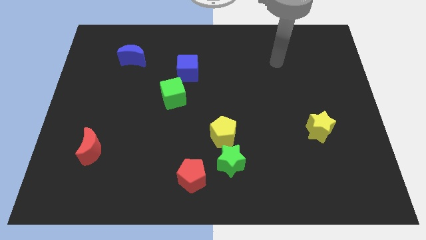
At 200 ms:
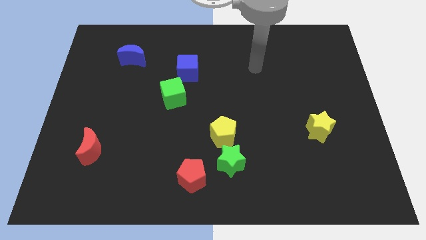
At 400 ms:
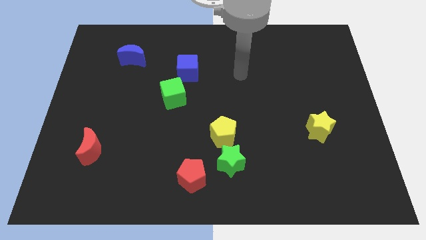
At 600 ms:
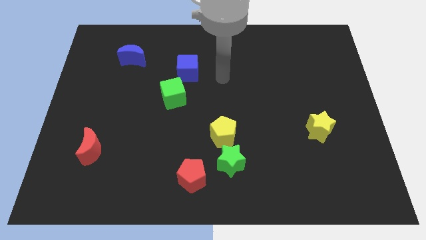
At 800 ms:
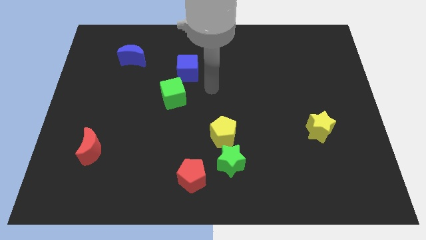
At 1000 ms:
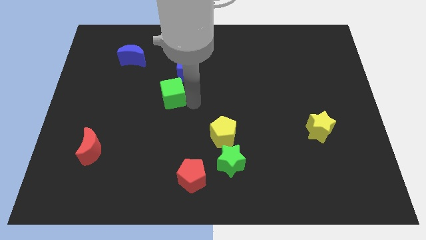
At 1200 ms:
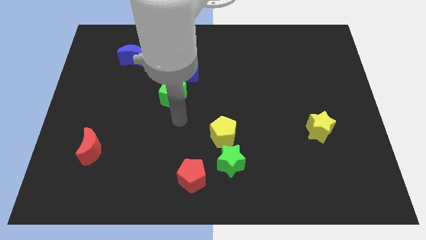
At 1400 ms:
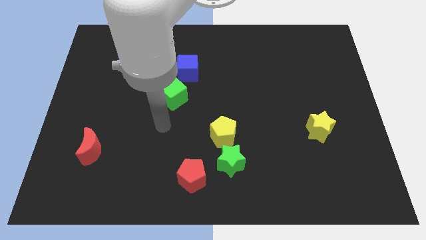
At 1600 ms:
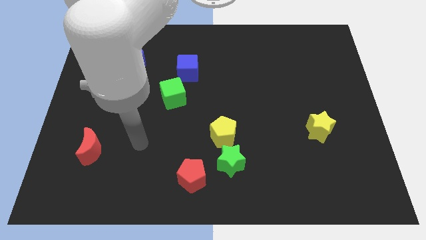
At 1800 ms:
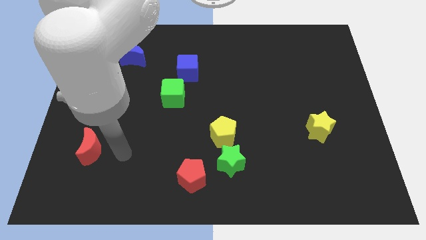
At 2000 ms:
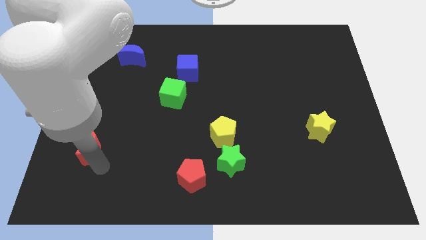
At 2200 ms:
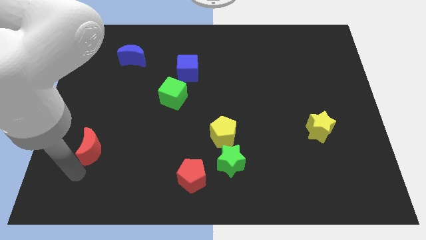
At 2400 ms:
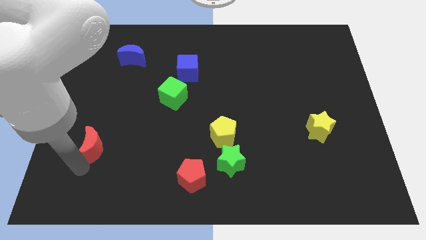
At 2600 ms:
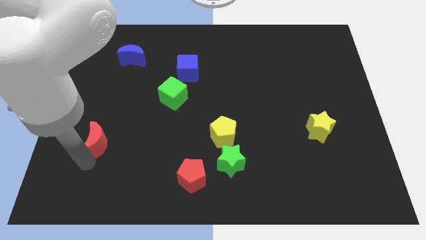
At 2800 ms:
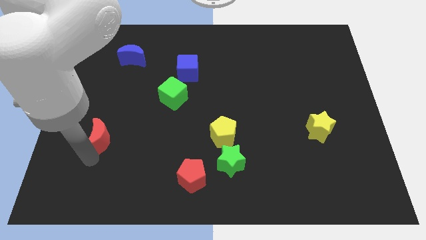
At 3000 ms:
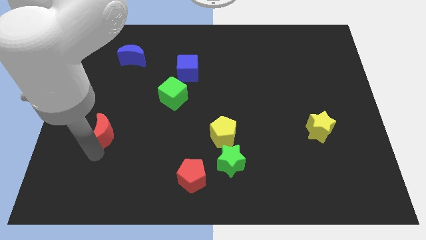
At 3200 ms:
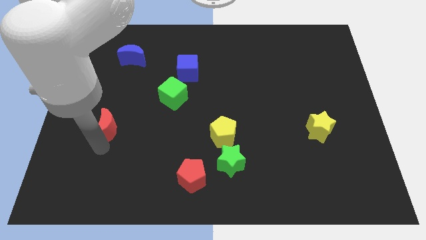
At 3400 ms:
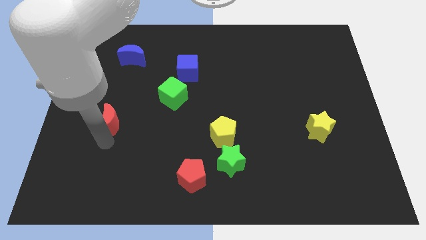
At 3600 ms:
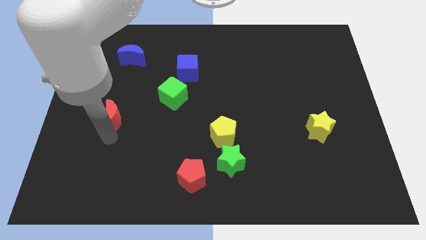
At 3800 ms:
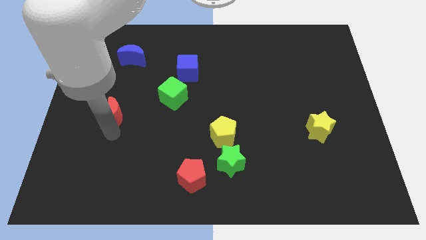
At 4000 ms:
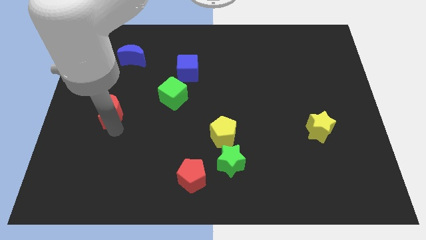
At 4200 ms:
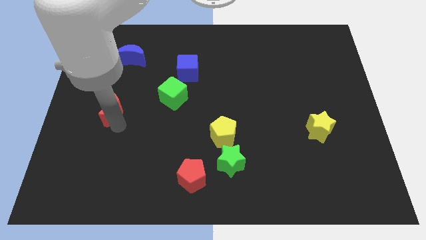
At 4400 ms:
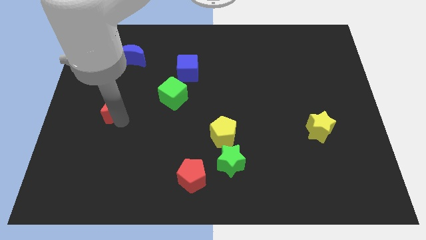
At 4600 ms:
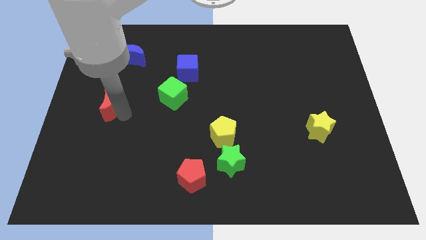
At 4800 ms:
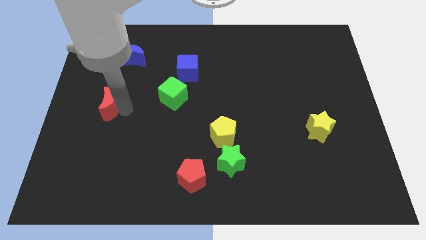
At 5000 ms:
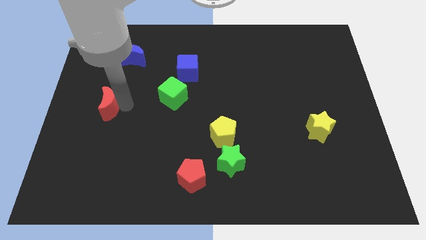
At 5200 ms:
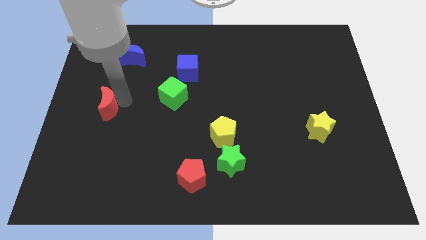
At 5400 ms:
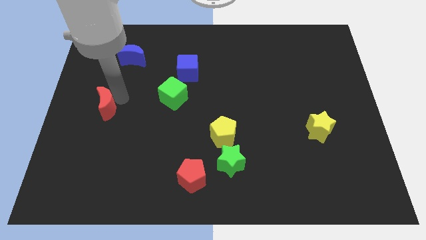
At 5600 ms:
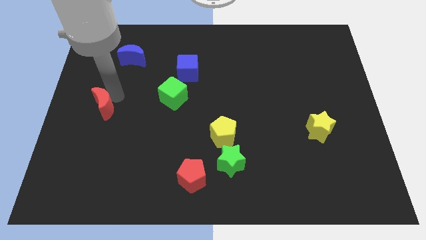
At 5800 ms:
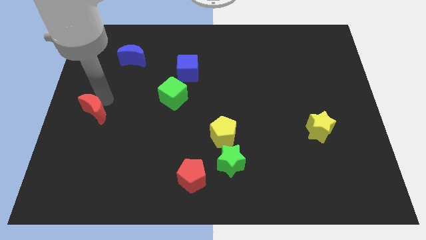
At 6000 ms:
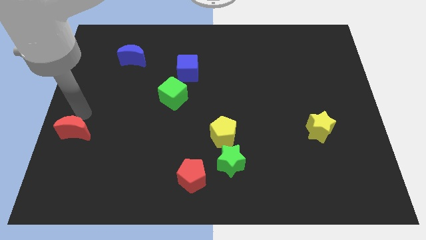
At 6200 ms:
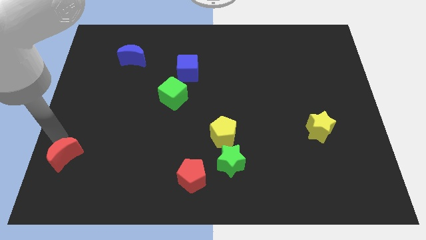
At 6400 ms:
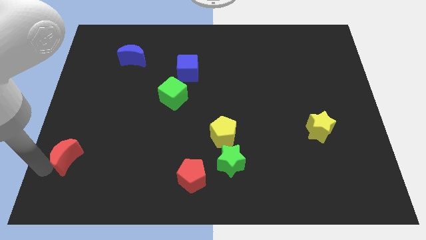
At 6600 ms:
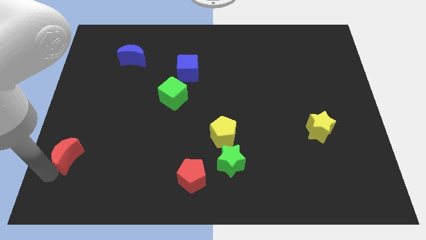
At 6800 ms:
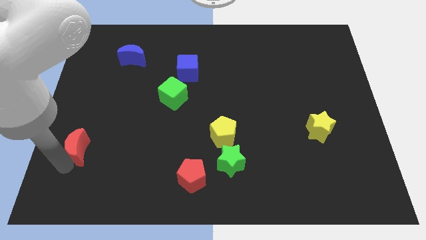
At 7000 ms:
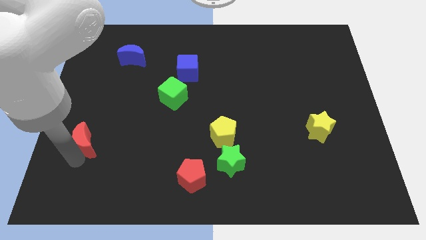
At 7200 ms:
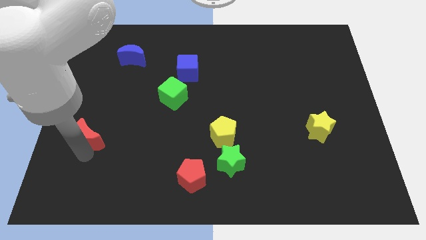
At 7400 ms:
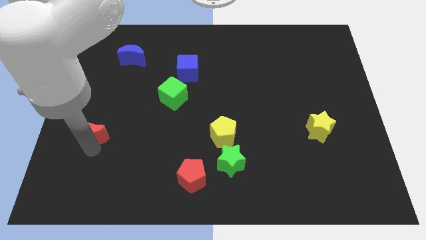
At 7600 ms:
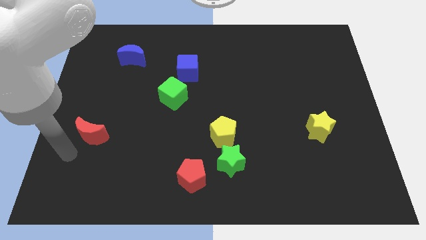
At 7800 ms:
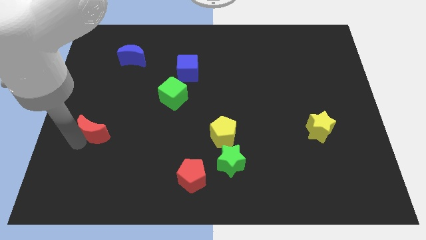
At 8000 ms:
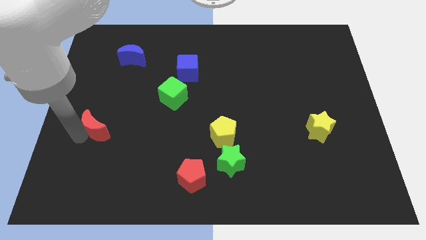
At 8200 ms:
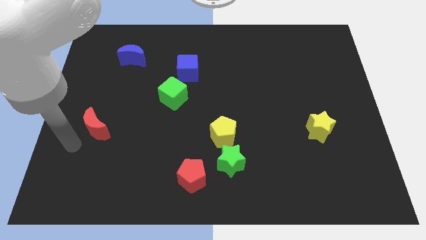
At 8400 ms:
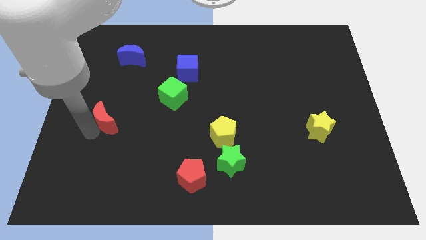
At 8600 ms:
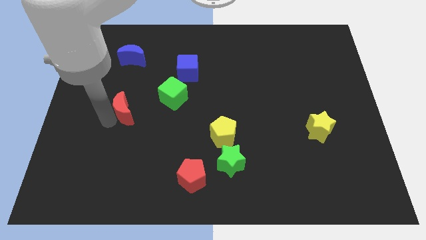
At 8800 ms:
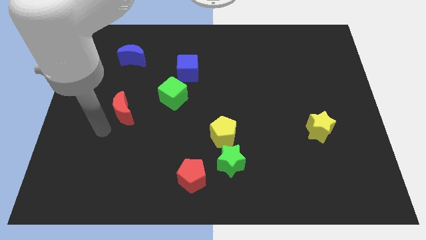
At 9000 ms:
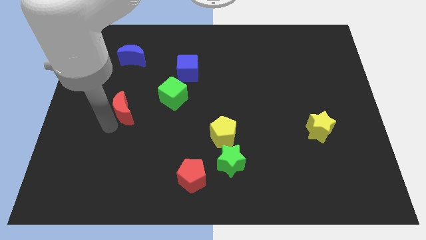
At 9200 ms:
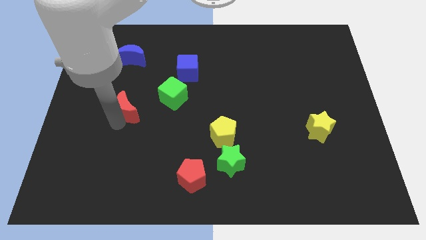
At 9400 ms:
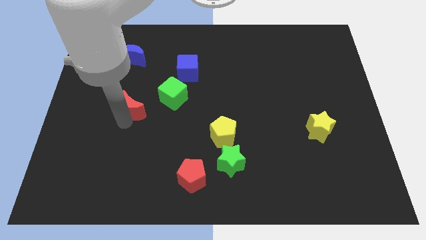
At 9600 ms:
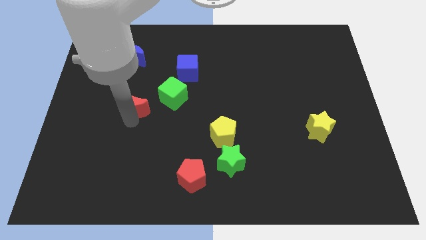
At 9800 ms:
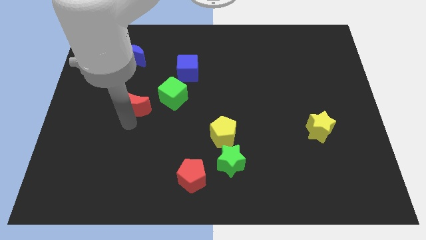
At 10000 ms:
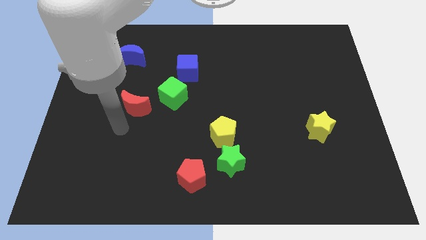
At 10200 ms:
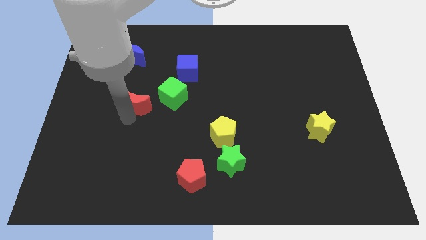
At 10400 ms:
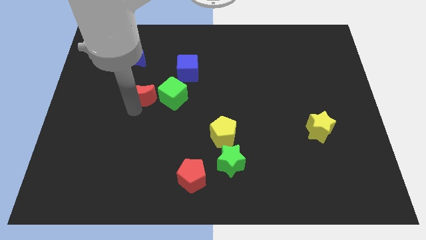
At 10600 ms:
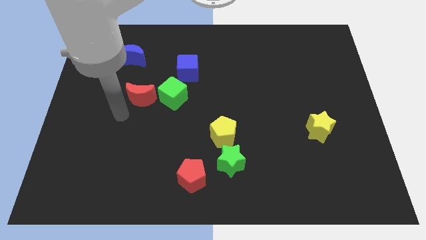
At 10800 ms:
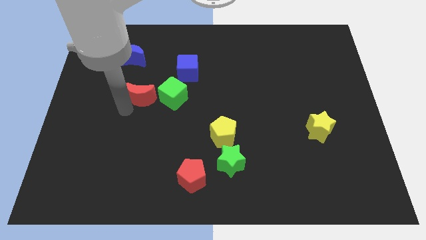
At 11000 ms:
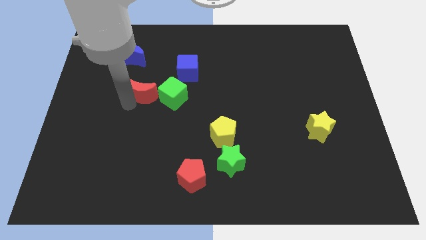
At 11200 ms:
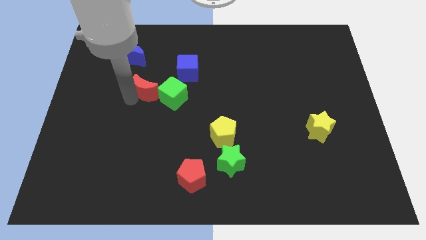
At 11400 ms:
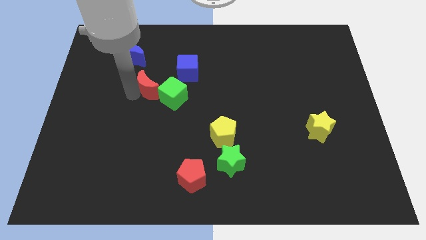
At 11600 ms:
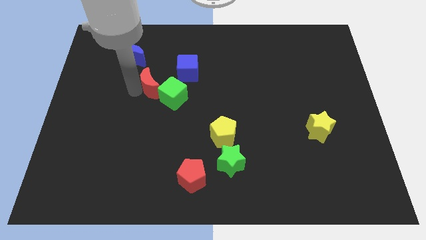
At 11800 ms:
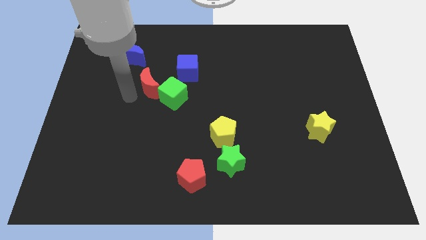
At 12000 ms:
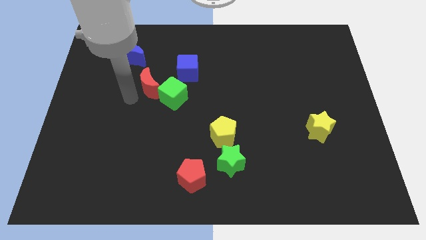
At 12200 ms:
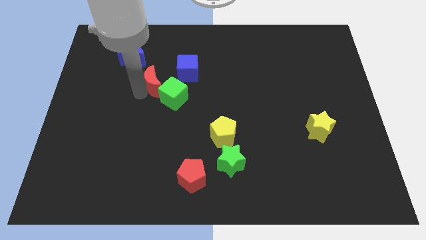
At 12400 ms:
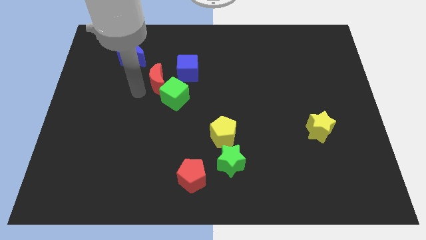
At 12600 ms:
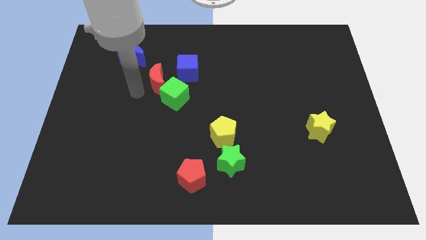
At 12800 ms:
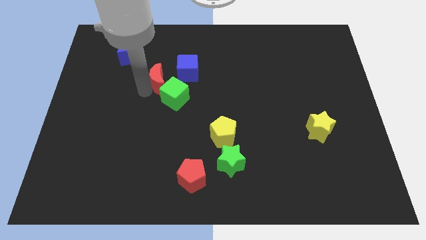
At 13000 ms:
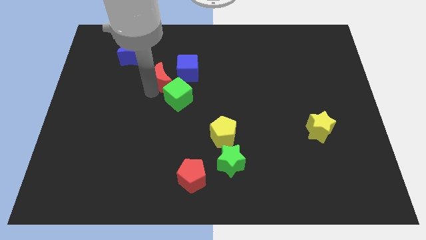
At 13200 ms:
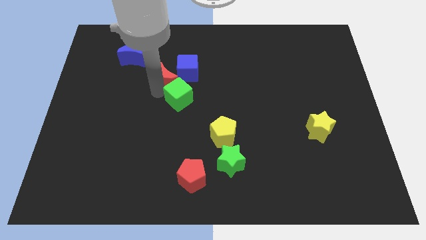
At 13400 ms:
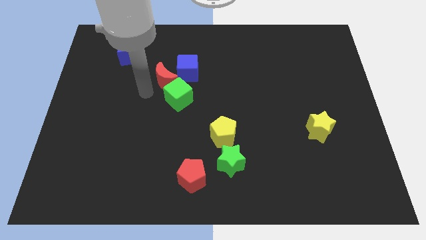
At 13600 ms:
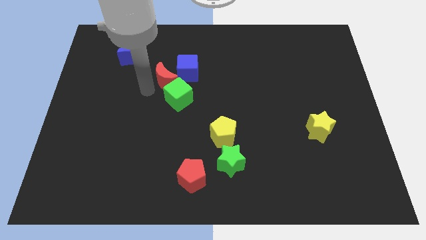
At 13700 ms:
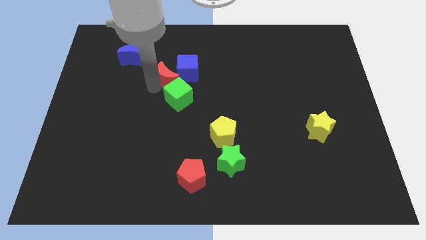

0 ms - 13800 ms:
move the red moon to the blue cube
